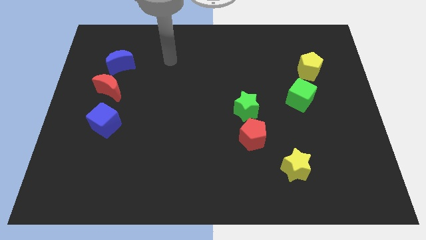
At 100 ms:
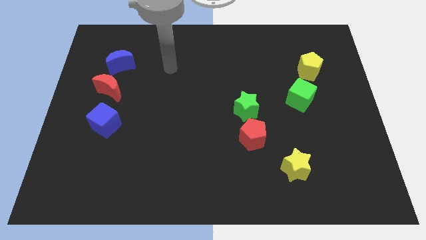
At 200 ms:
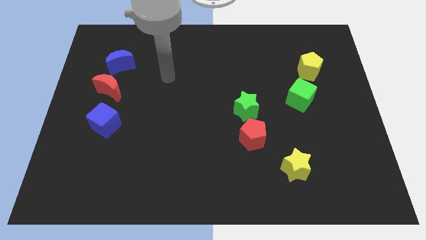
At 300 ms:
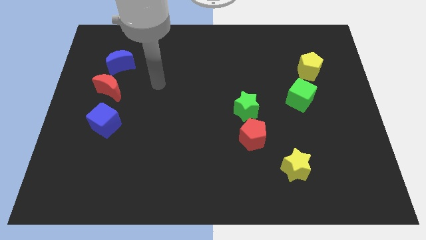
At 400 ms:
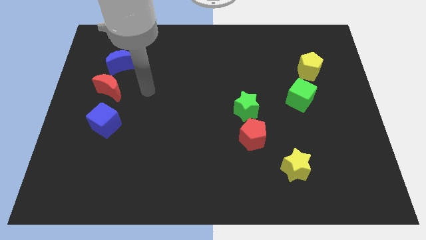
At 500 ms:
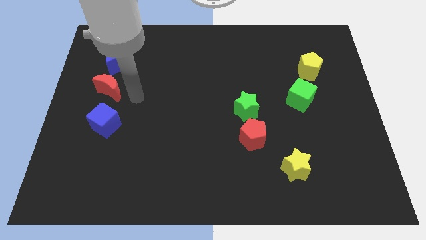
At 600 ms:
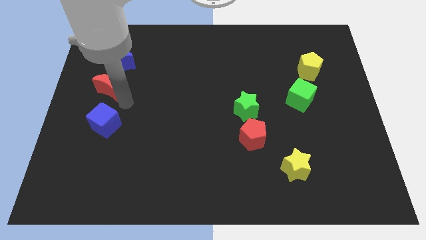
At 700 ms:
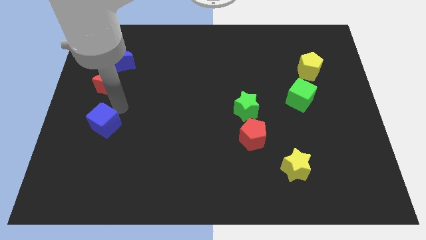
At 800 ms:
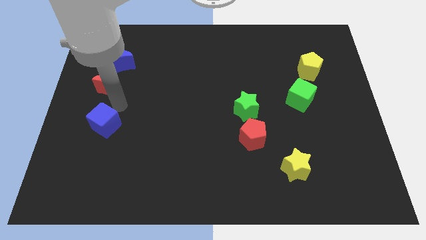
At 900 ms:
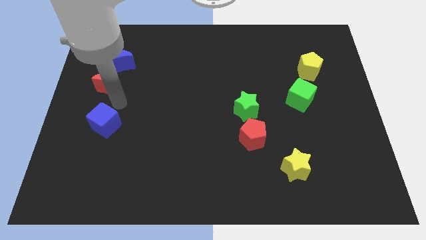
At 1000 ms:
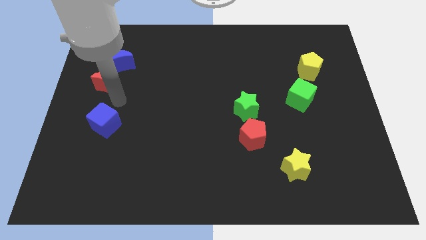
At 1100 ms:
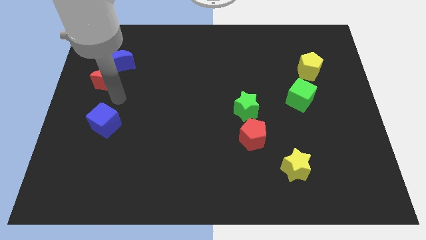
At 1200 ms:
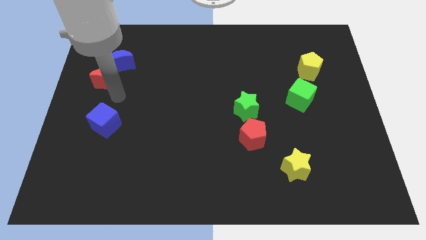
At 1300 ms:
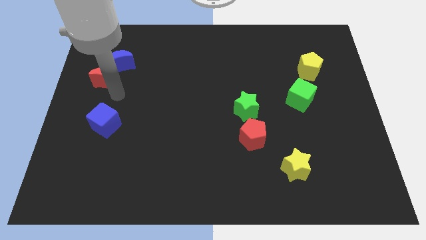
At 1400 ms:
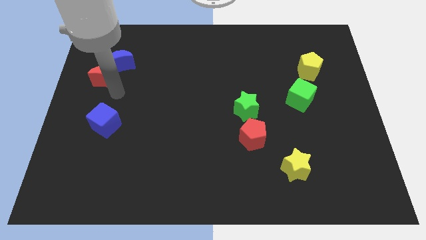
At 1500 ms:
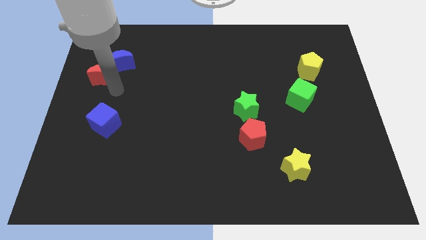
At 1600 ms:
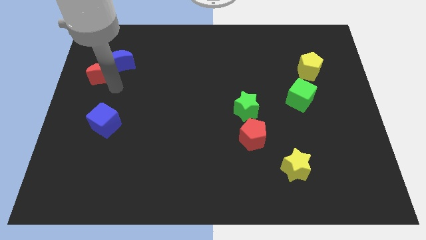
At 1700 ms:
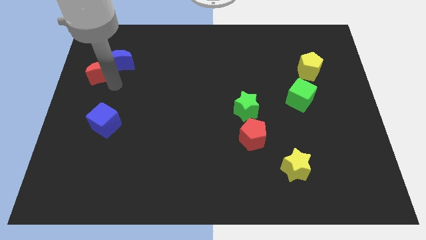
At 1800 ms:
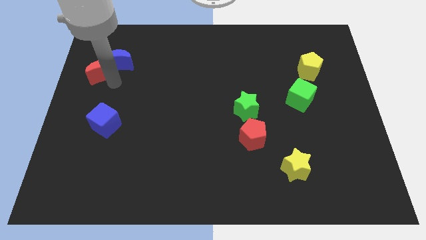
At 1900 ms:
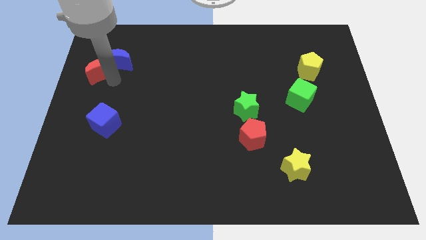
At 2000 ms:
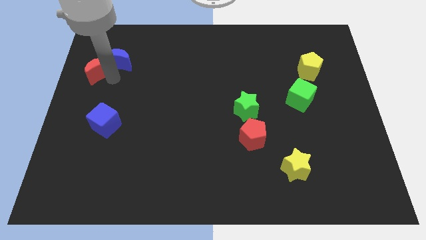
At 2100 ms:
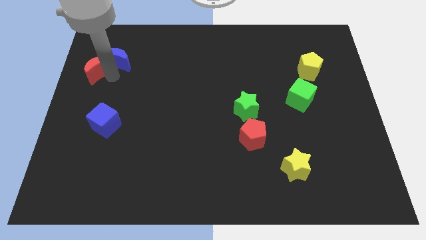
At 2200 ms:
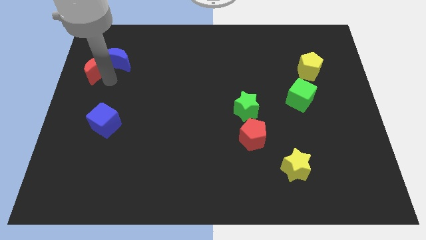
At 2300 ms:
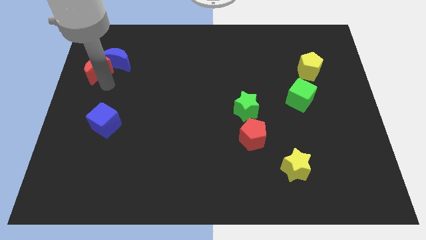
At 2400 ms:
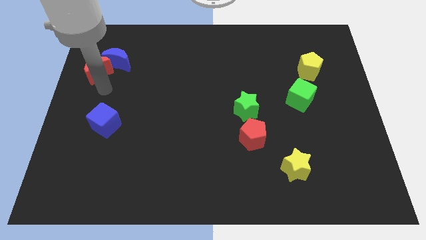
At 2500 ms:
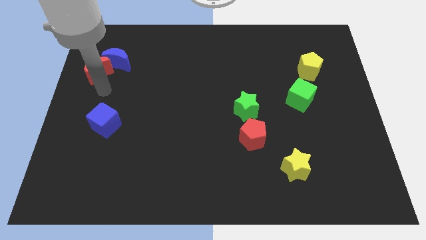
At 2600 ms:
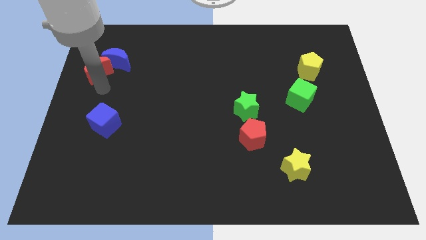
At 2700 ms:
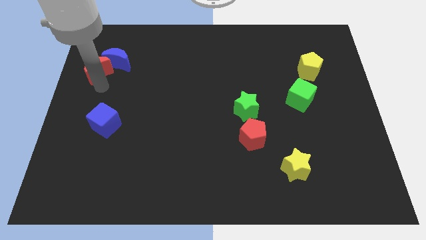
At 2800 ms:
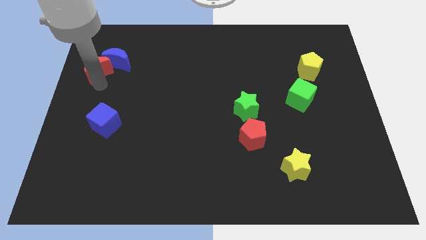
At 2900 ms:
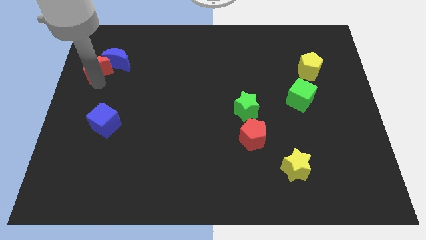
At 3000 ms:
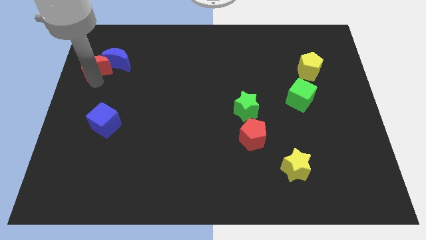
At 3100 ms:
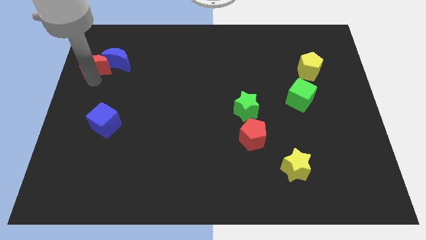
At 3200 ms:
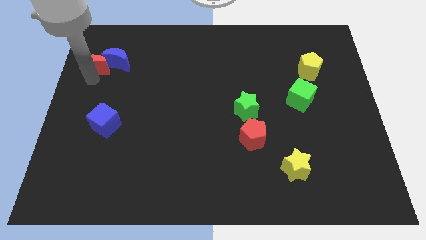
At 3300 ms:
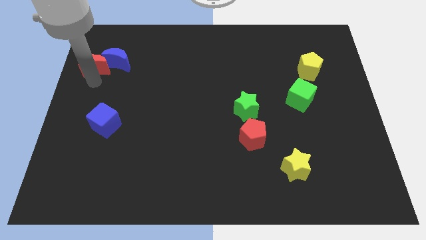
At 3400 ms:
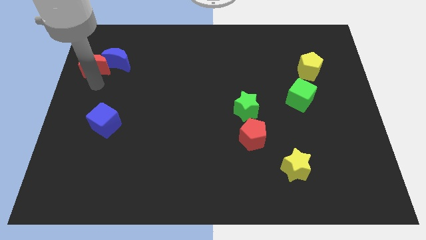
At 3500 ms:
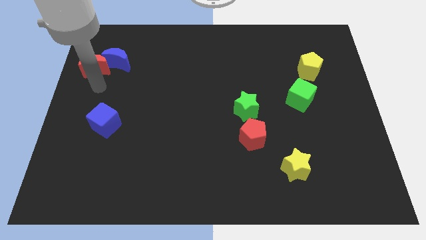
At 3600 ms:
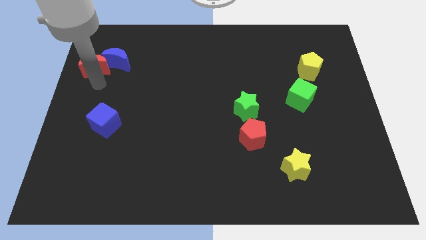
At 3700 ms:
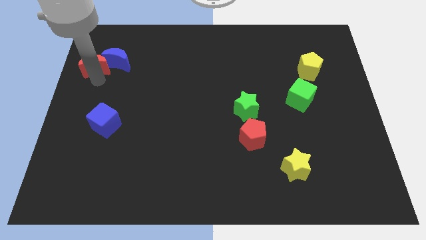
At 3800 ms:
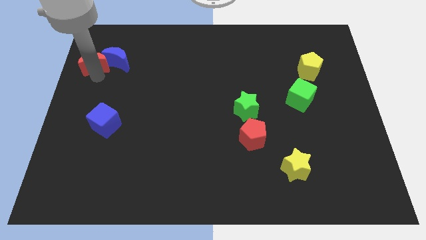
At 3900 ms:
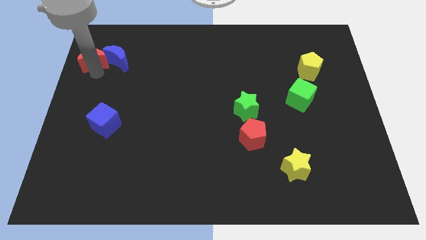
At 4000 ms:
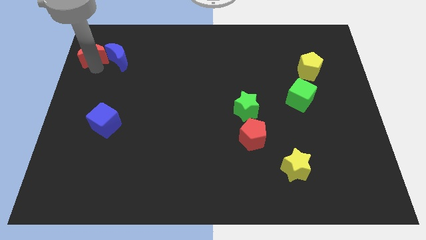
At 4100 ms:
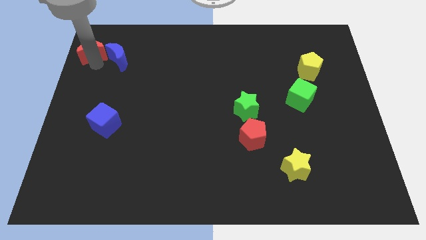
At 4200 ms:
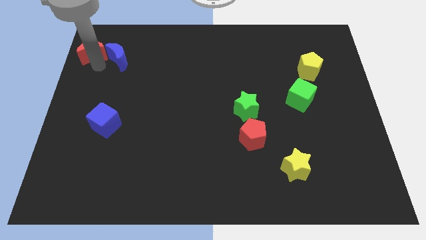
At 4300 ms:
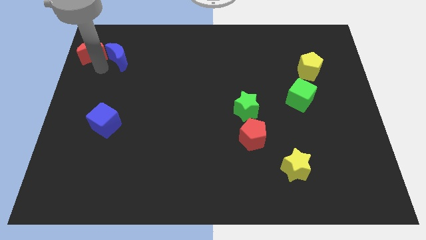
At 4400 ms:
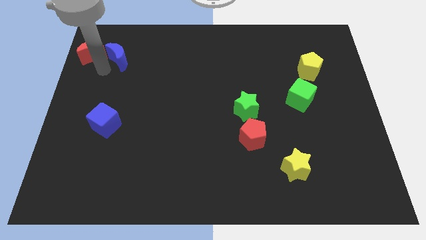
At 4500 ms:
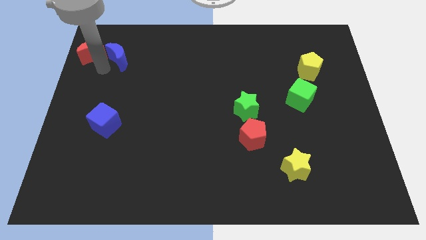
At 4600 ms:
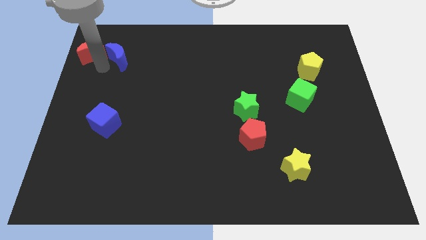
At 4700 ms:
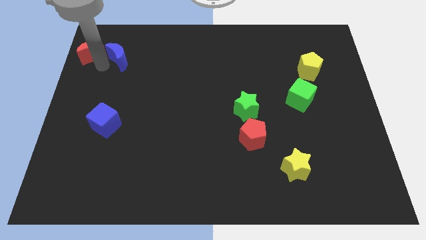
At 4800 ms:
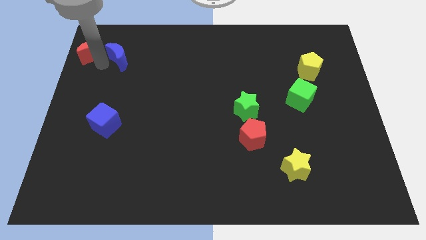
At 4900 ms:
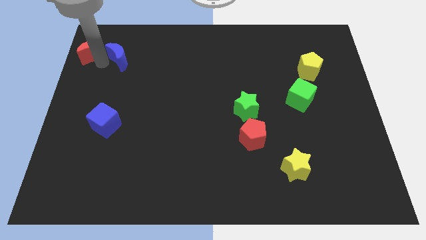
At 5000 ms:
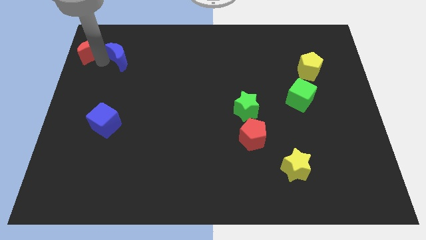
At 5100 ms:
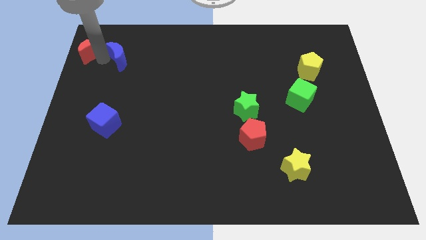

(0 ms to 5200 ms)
push the red moon to the top left

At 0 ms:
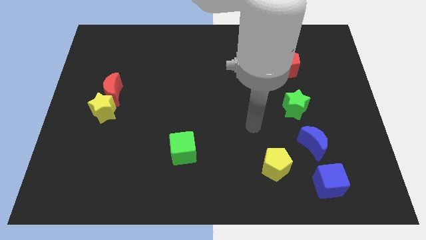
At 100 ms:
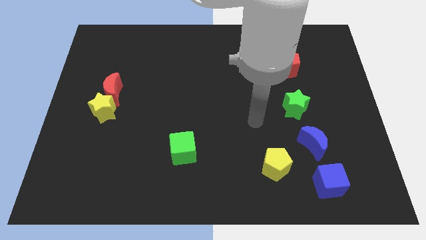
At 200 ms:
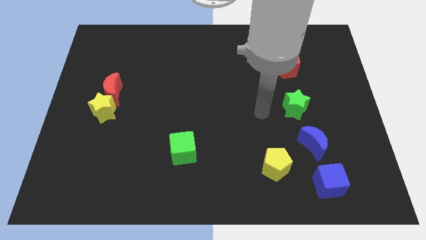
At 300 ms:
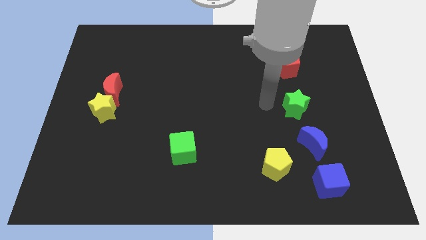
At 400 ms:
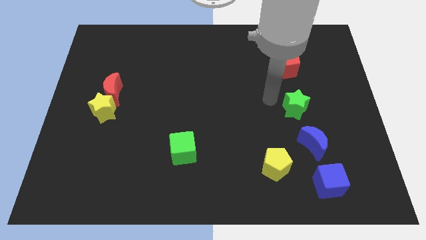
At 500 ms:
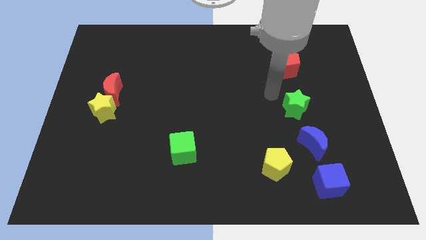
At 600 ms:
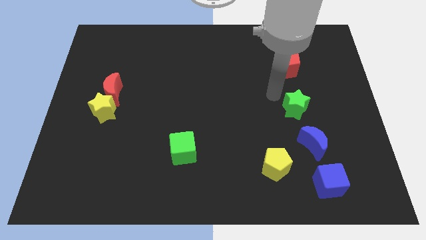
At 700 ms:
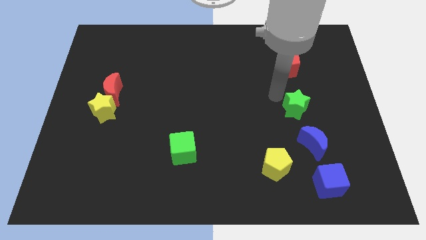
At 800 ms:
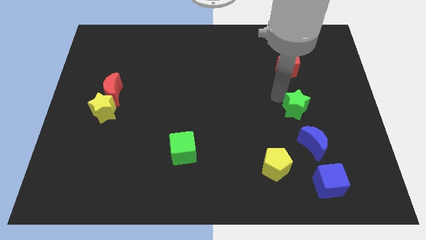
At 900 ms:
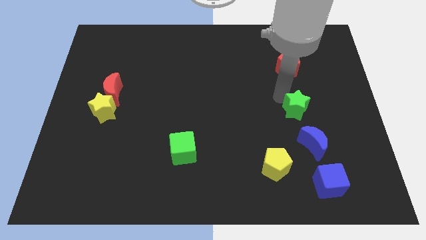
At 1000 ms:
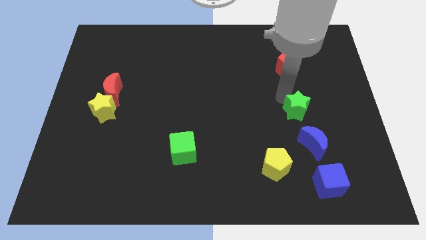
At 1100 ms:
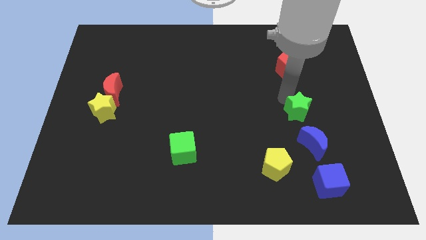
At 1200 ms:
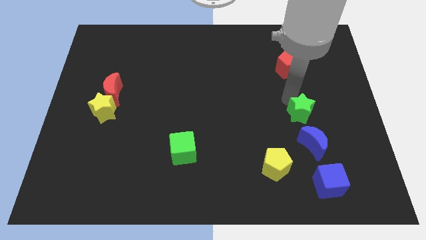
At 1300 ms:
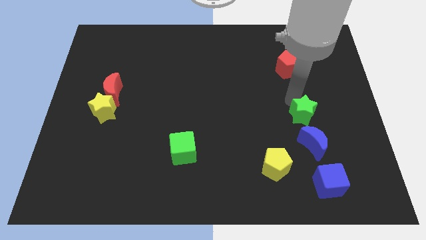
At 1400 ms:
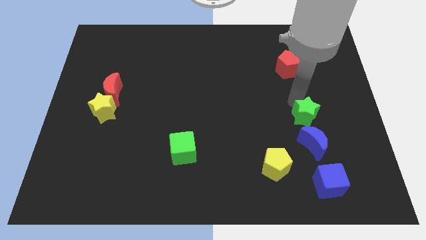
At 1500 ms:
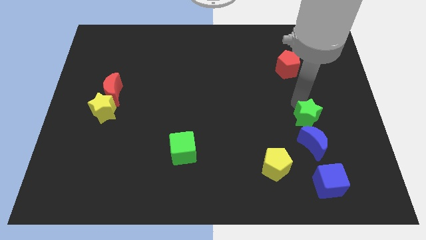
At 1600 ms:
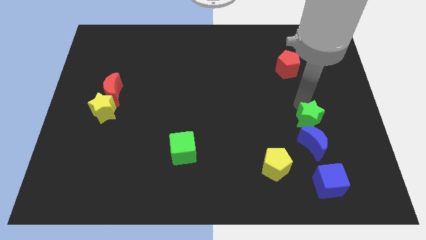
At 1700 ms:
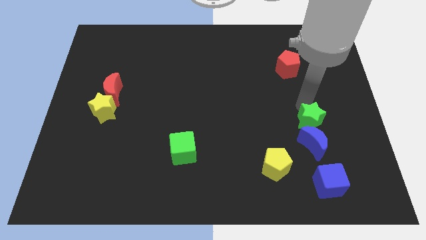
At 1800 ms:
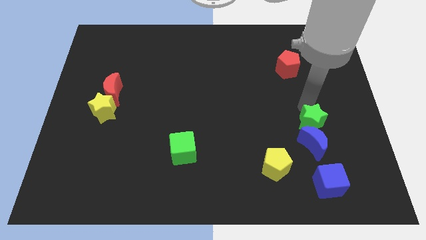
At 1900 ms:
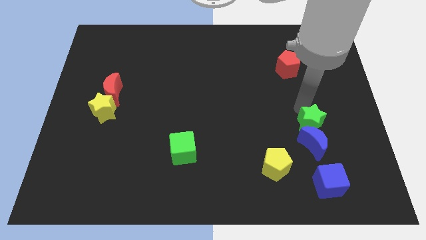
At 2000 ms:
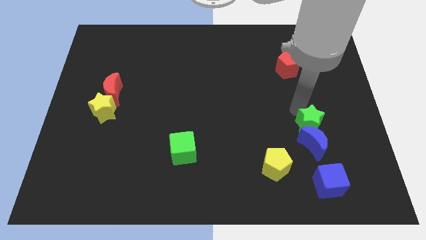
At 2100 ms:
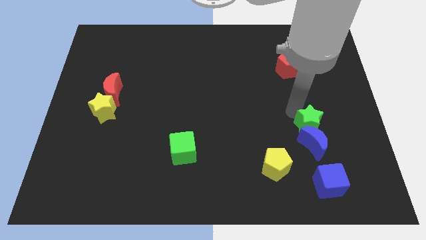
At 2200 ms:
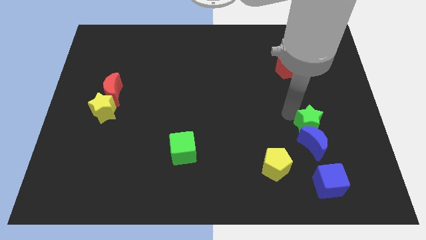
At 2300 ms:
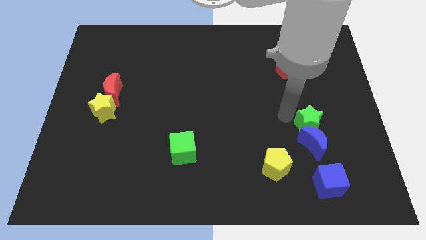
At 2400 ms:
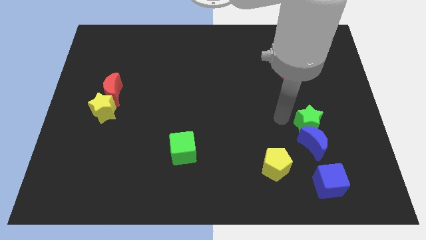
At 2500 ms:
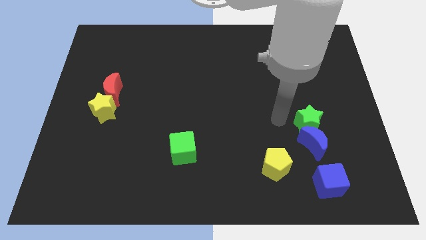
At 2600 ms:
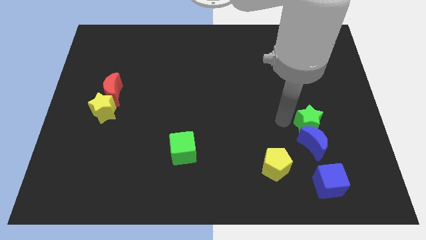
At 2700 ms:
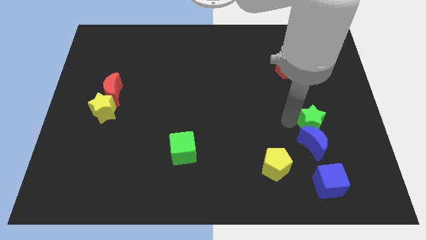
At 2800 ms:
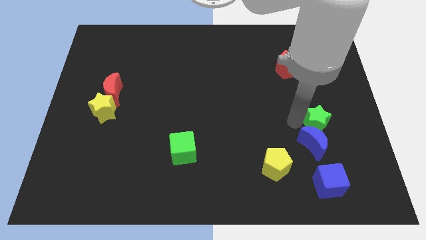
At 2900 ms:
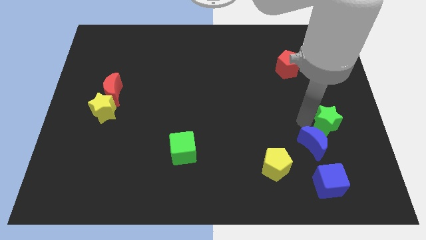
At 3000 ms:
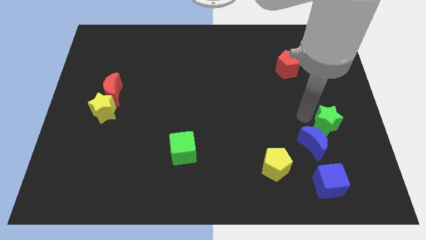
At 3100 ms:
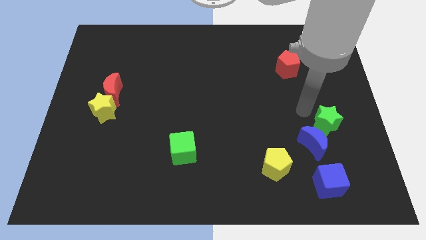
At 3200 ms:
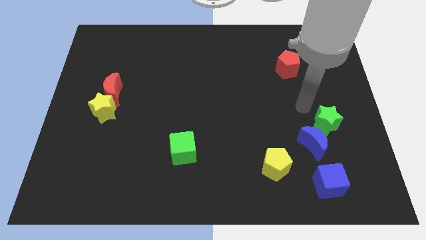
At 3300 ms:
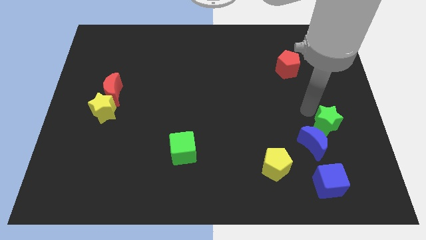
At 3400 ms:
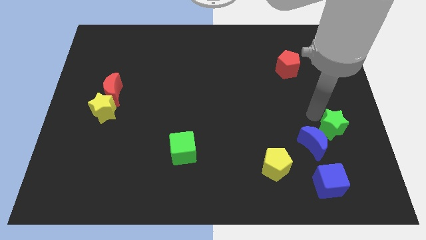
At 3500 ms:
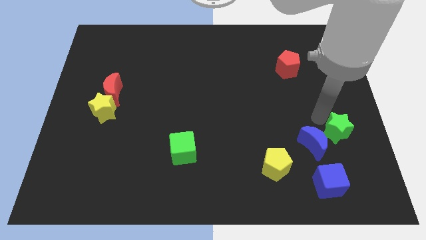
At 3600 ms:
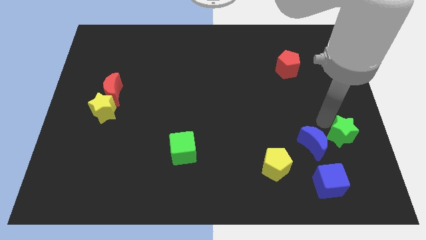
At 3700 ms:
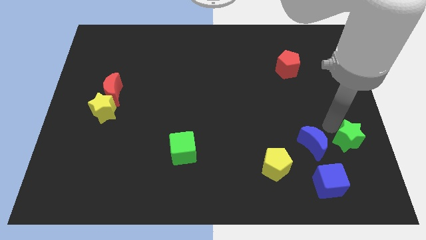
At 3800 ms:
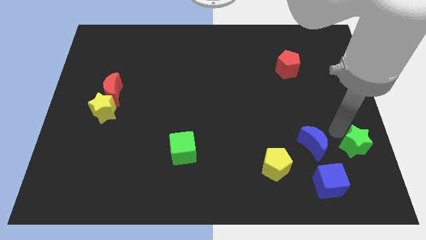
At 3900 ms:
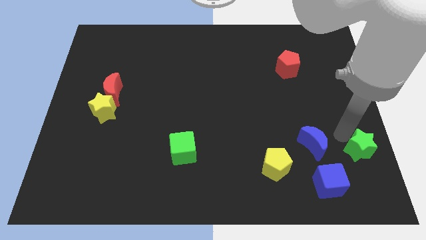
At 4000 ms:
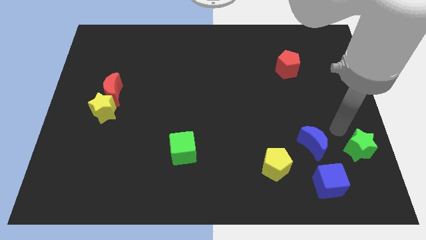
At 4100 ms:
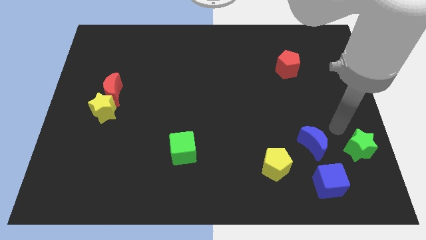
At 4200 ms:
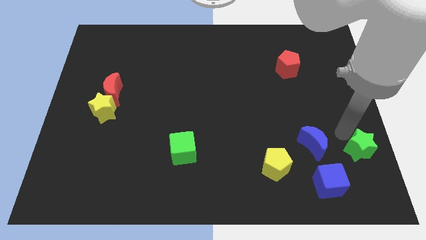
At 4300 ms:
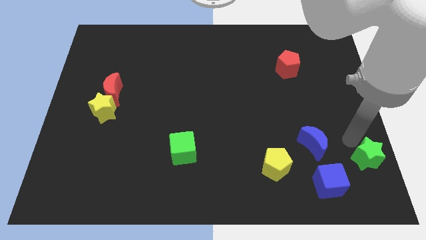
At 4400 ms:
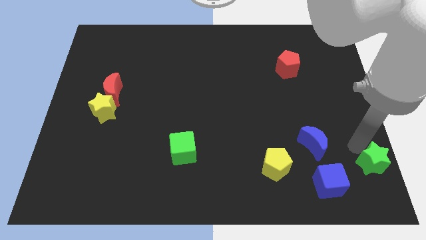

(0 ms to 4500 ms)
move the green star to the bottom right corner
